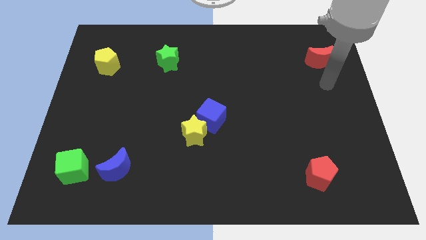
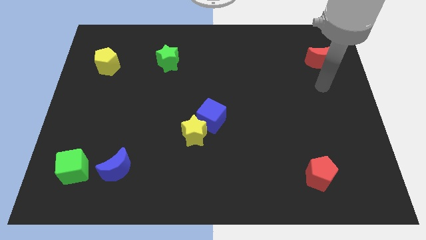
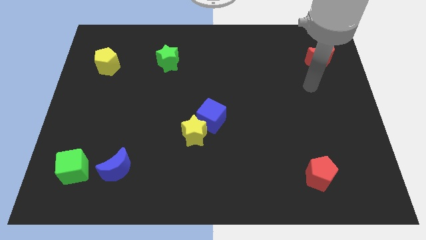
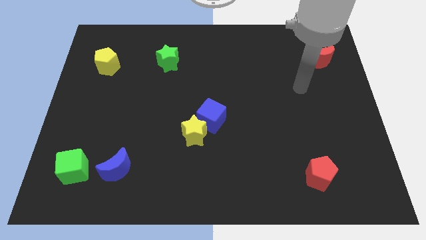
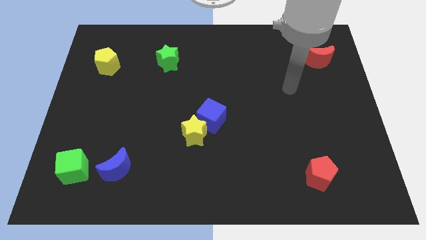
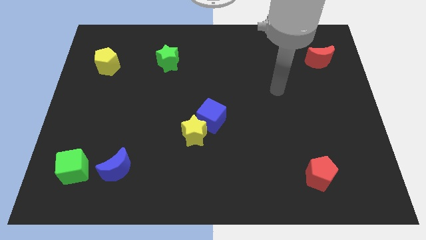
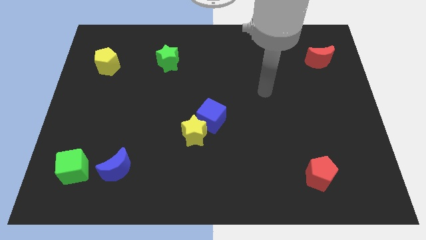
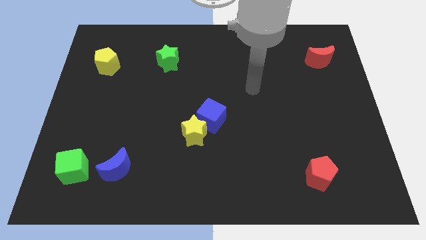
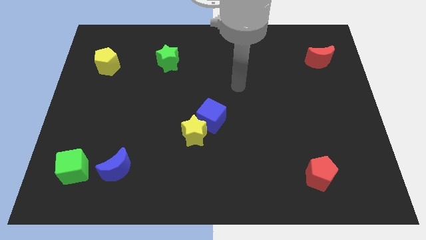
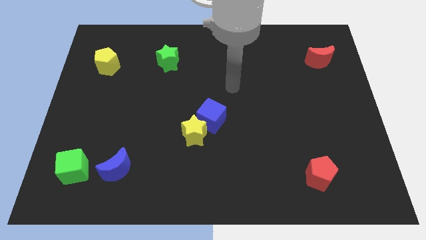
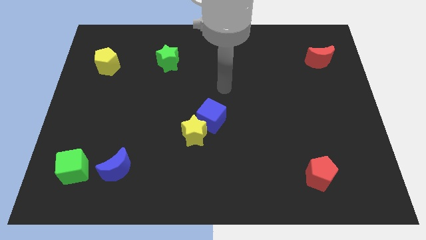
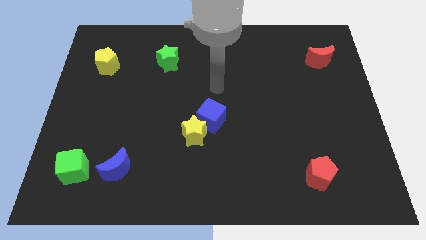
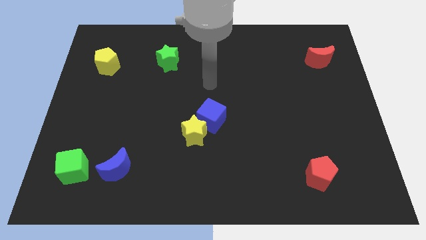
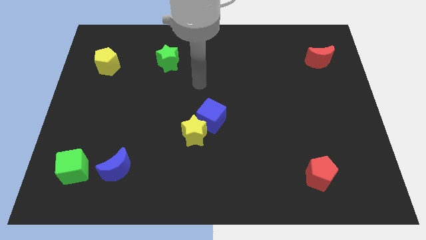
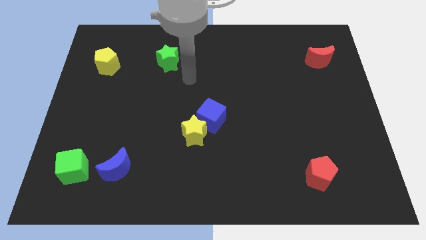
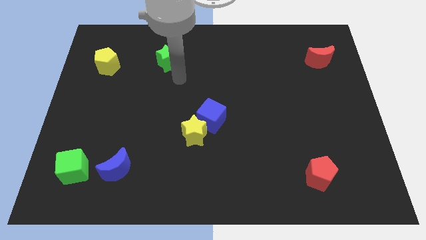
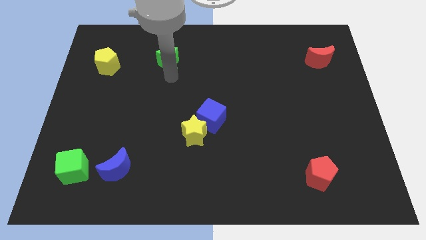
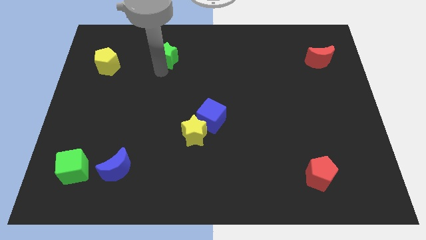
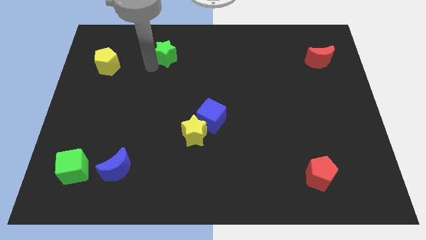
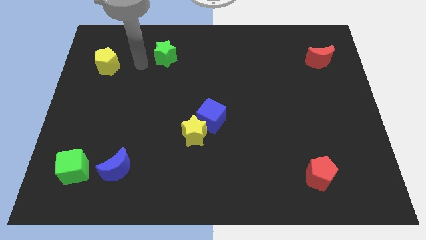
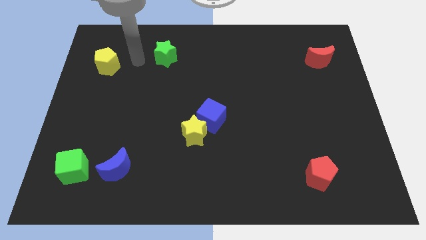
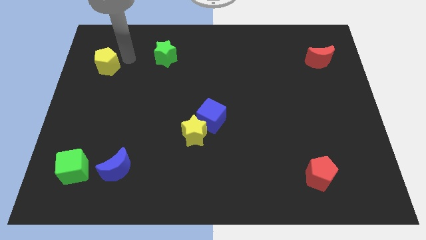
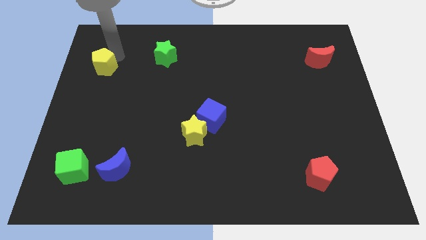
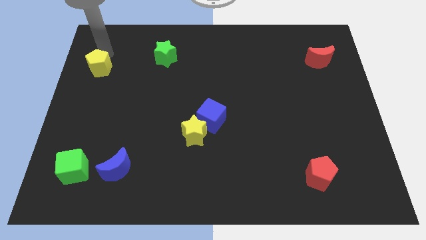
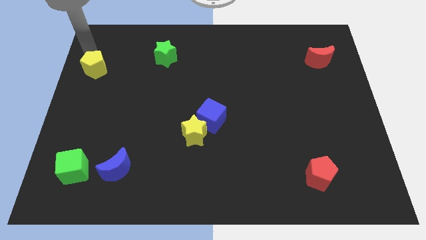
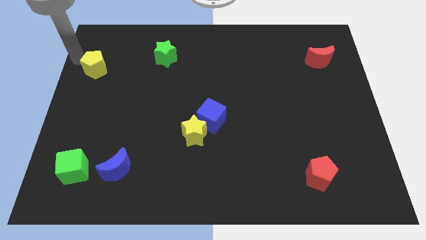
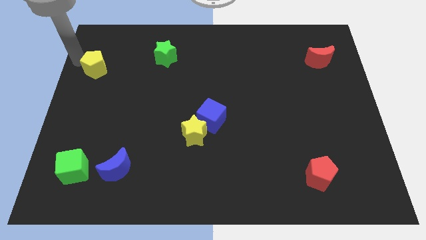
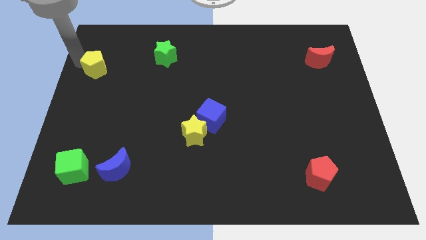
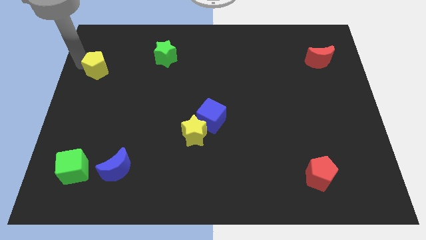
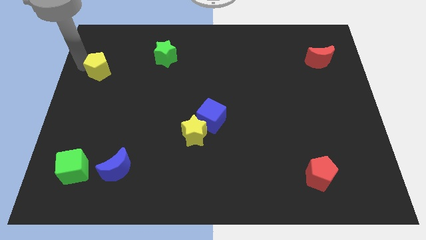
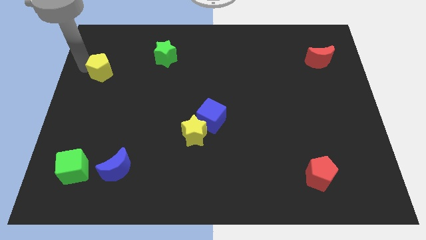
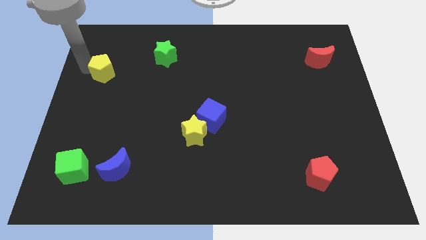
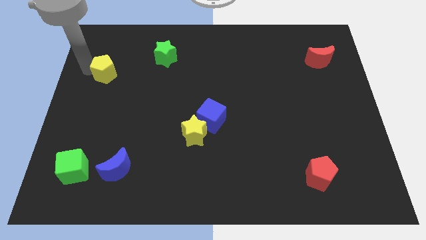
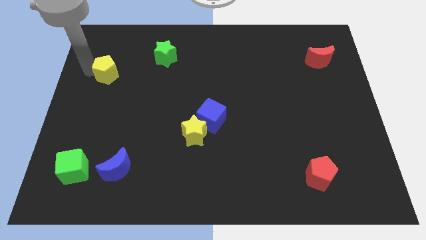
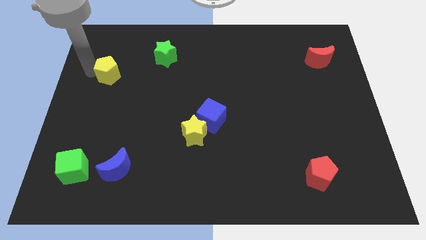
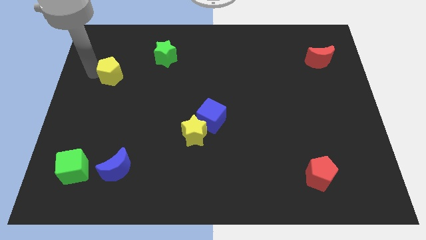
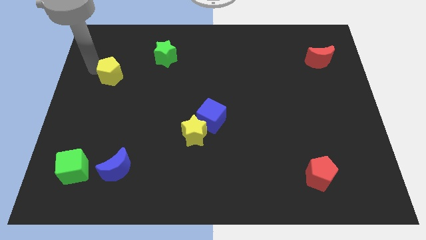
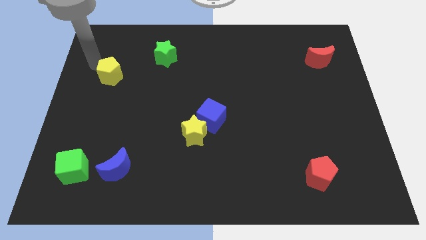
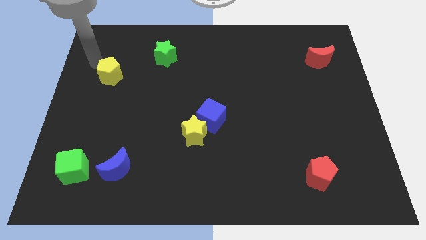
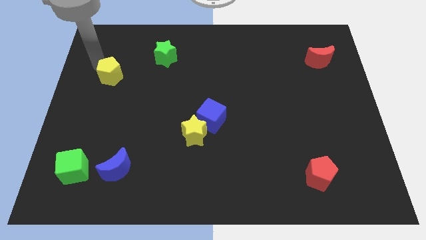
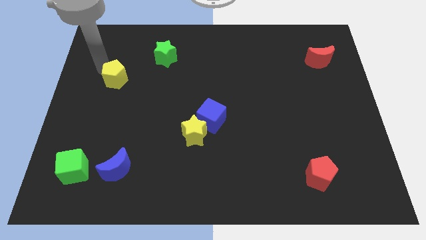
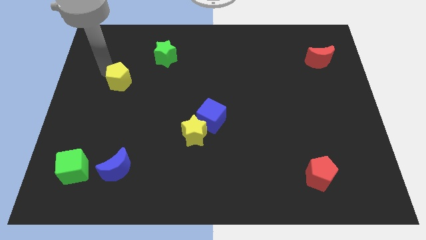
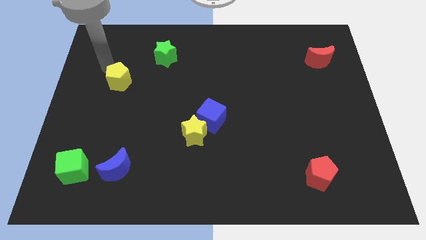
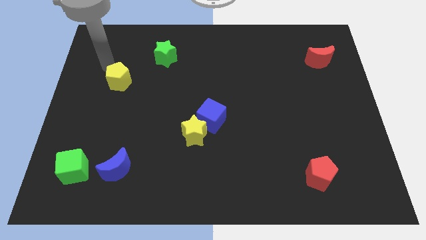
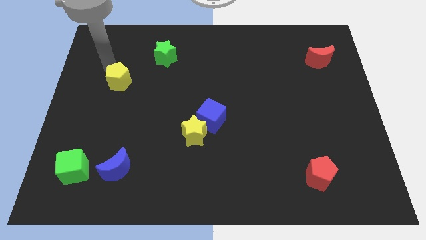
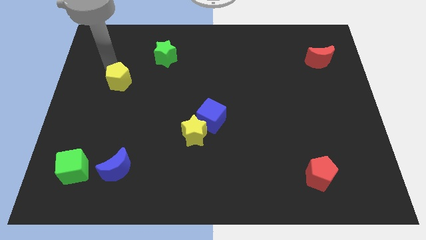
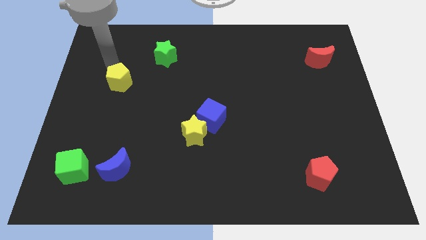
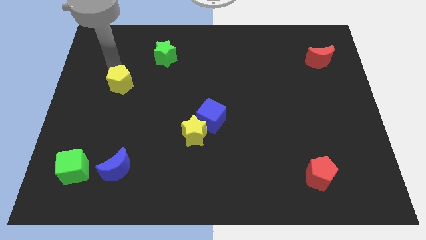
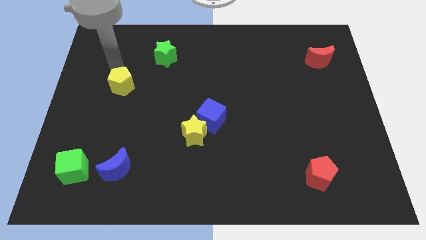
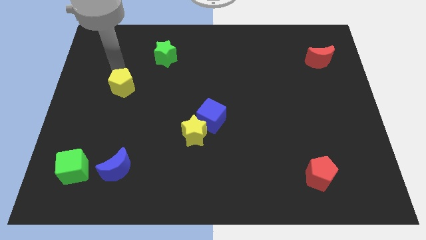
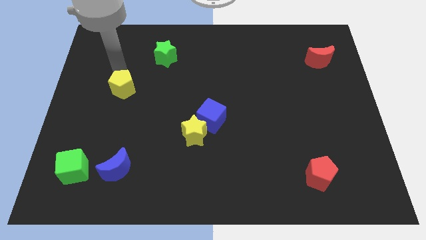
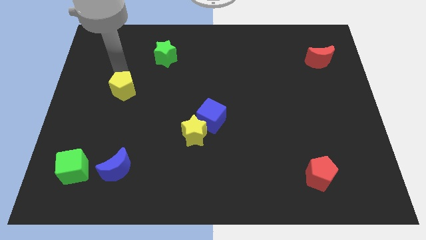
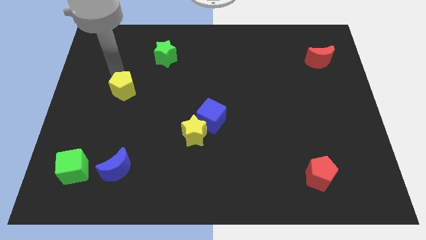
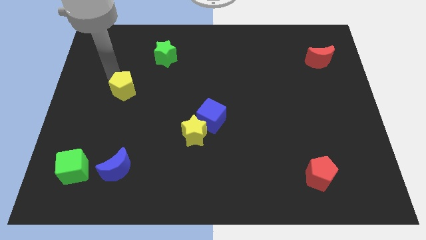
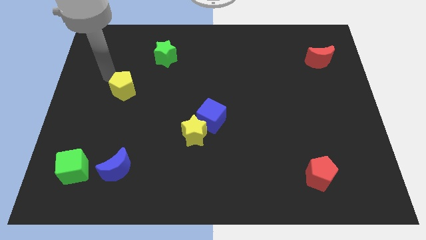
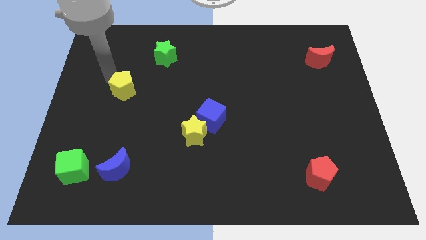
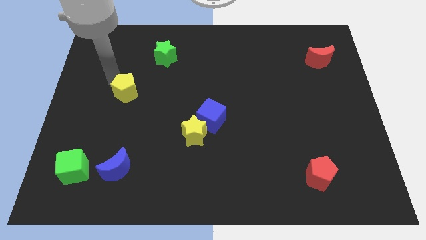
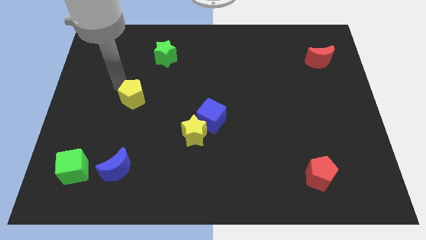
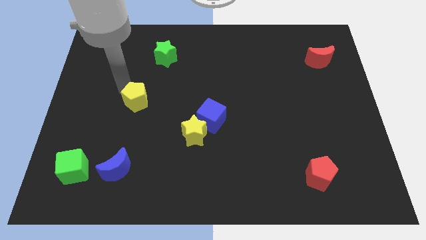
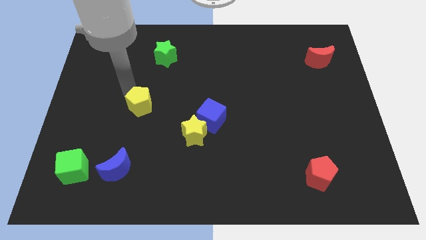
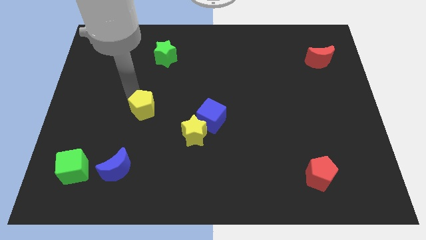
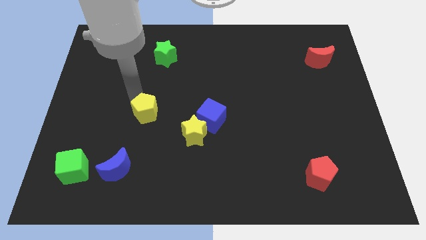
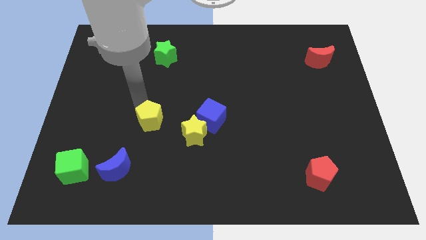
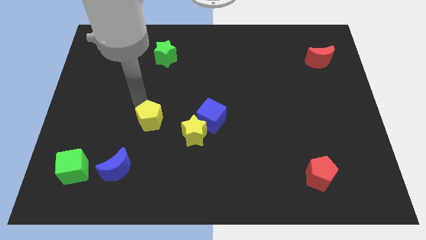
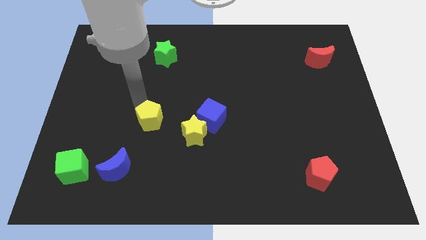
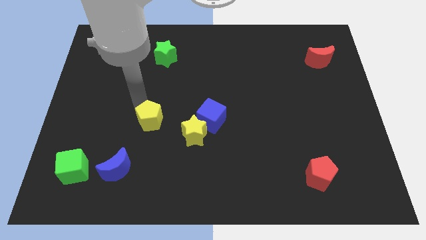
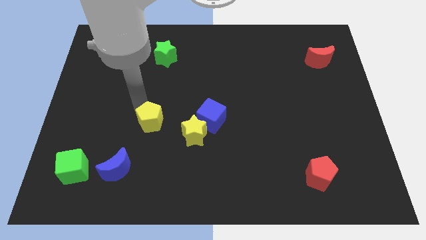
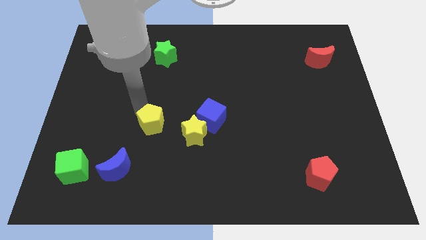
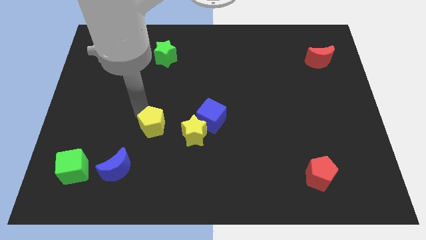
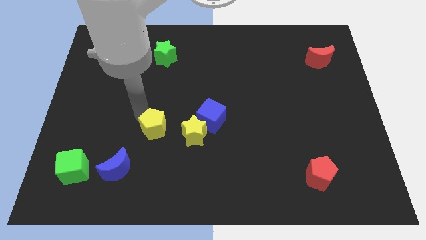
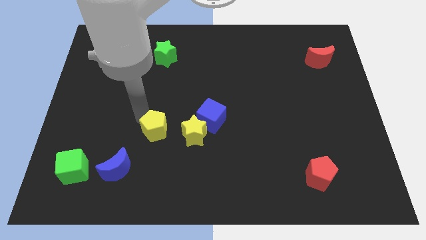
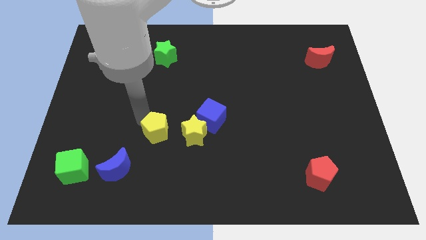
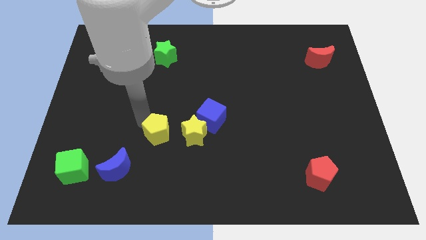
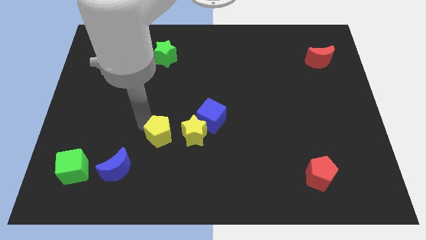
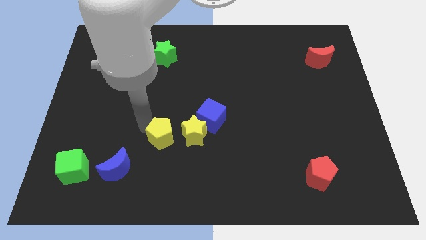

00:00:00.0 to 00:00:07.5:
move the yellow pentagon to the bottom left of the yellow star
